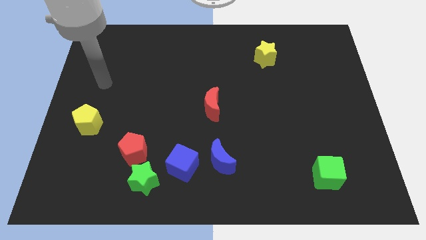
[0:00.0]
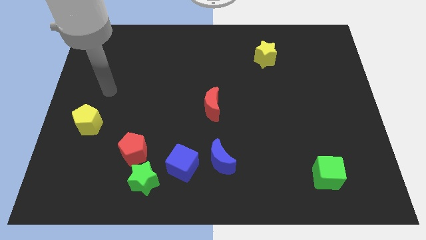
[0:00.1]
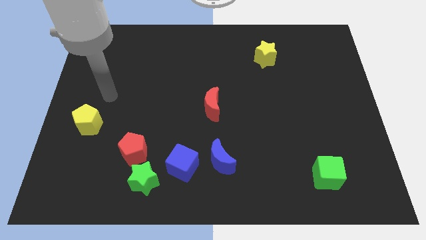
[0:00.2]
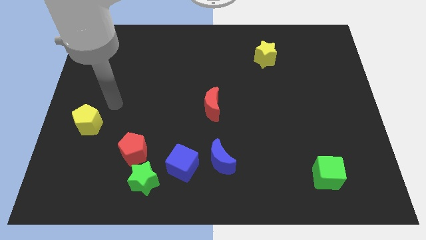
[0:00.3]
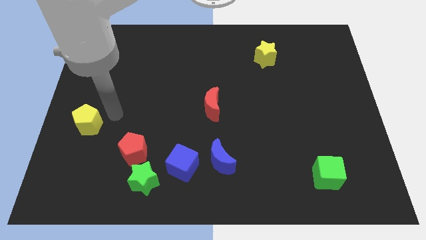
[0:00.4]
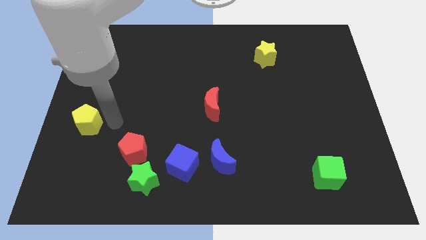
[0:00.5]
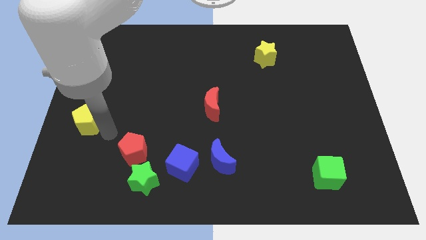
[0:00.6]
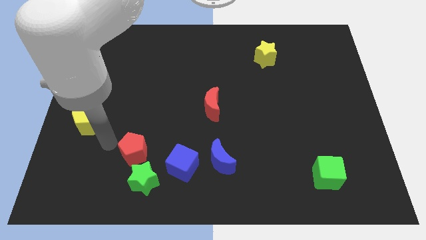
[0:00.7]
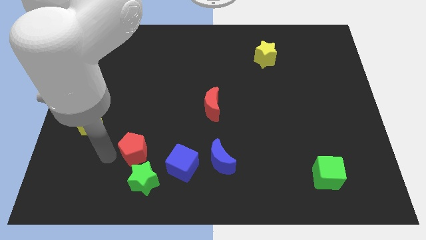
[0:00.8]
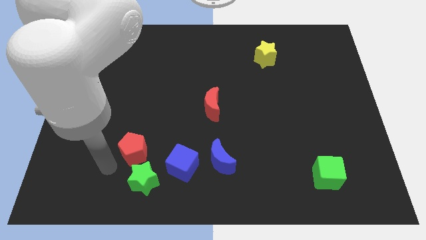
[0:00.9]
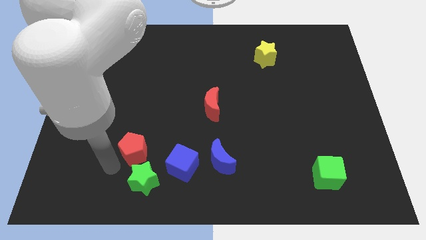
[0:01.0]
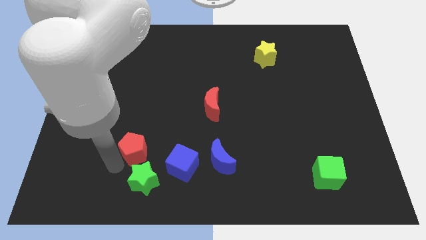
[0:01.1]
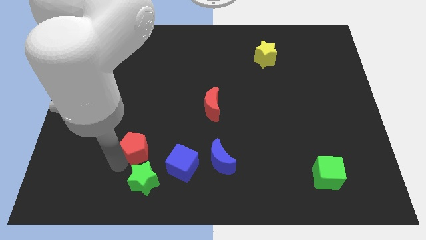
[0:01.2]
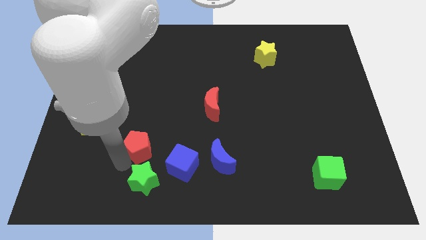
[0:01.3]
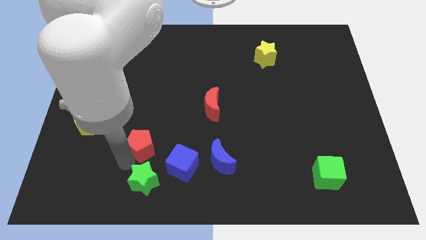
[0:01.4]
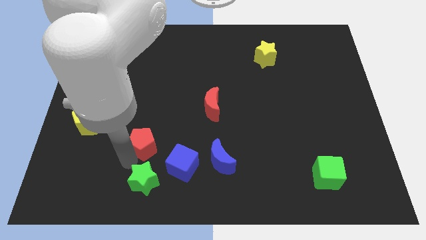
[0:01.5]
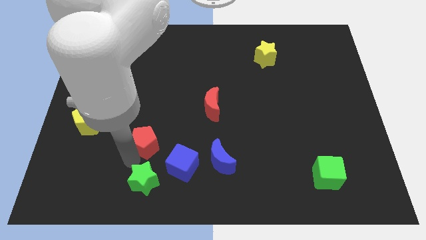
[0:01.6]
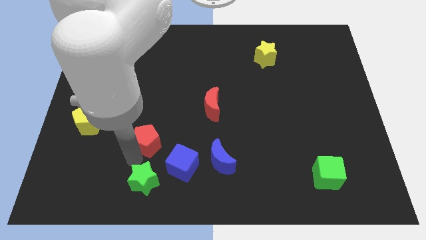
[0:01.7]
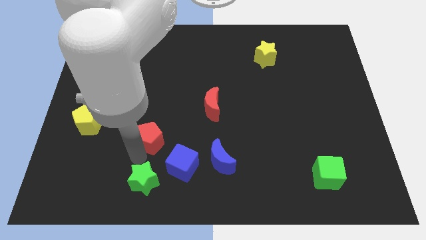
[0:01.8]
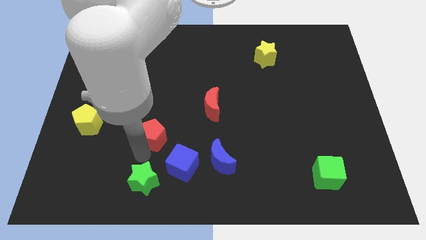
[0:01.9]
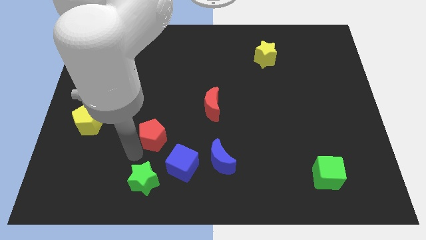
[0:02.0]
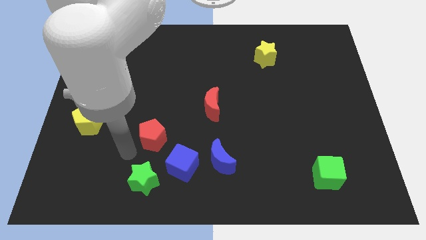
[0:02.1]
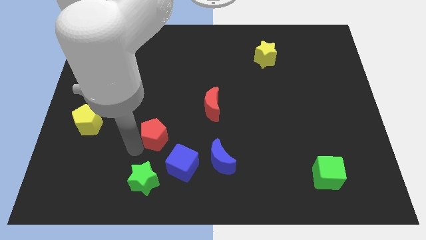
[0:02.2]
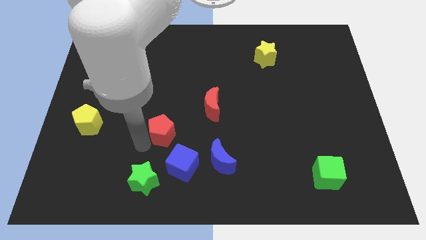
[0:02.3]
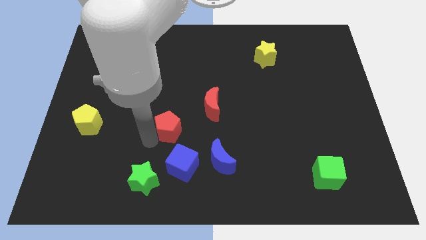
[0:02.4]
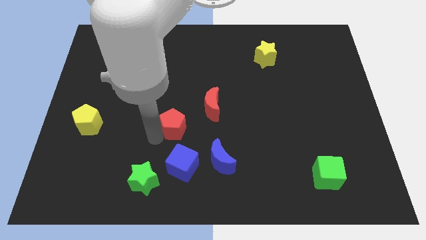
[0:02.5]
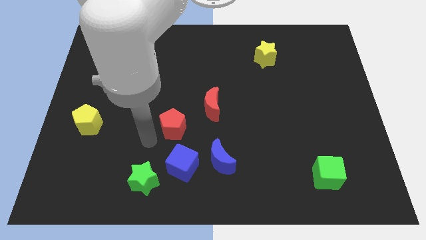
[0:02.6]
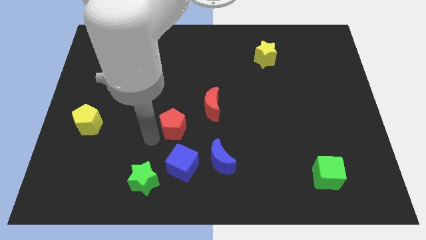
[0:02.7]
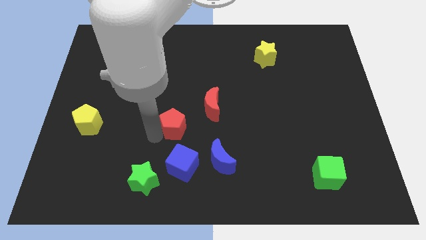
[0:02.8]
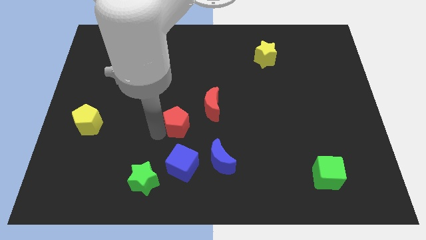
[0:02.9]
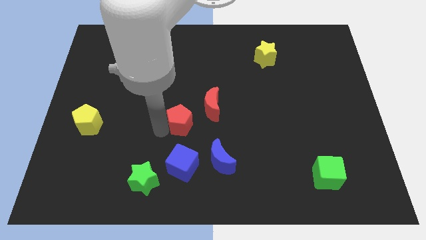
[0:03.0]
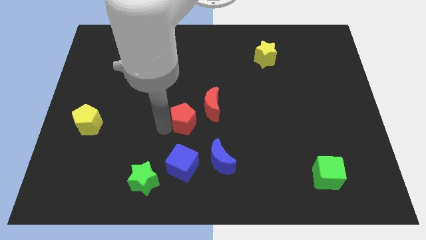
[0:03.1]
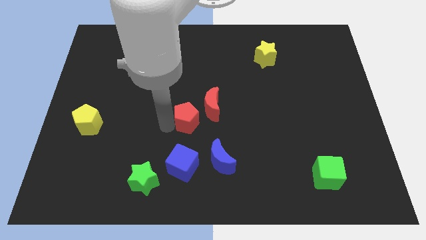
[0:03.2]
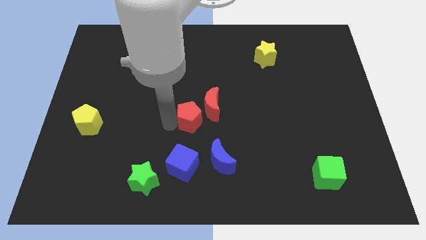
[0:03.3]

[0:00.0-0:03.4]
move the red pentagon close to the red moon

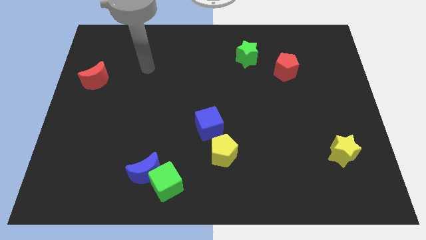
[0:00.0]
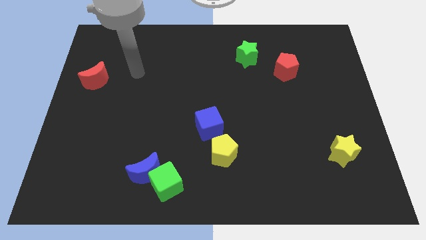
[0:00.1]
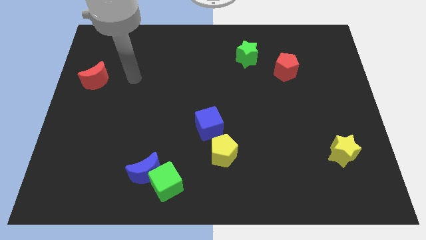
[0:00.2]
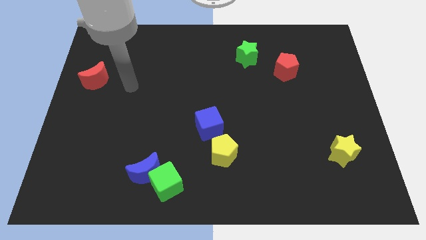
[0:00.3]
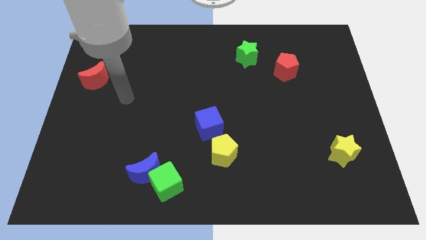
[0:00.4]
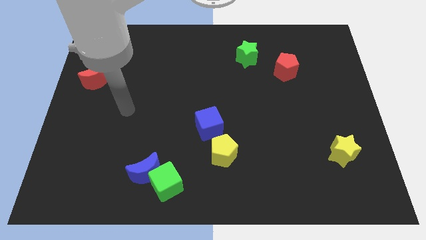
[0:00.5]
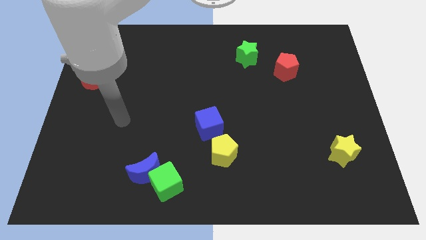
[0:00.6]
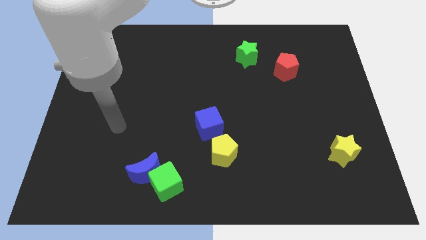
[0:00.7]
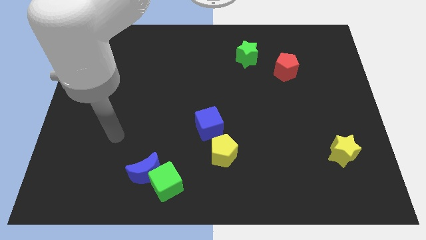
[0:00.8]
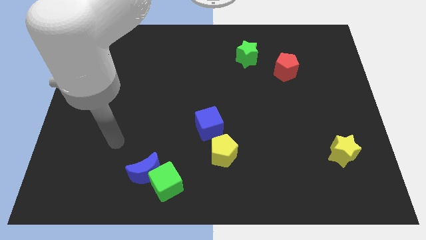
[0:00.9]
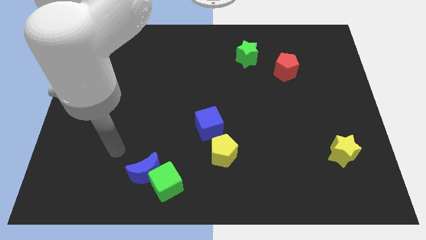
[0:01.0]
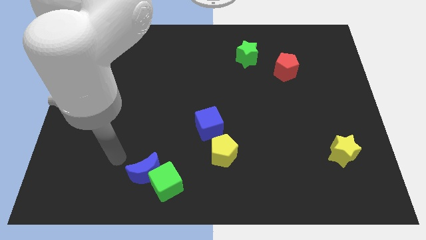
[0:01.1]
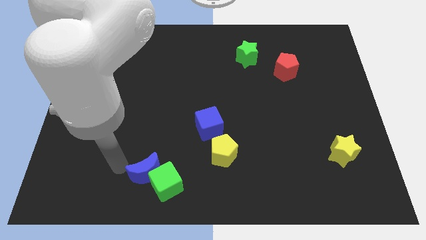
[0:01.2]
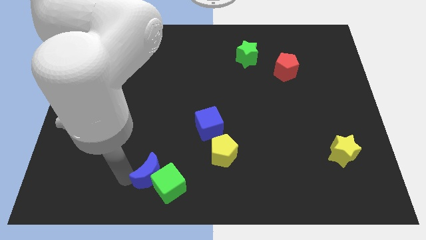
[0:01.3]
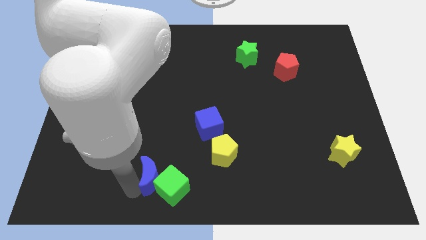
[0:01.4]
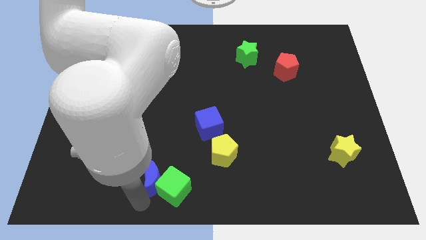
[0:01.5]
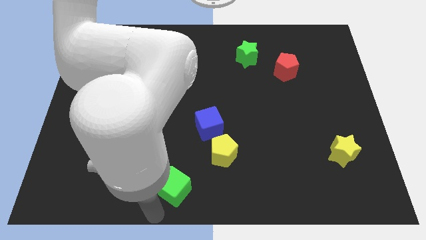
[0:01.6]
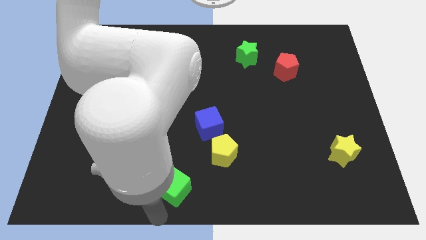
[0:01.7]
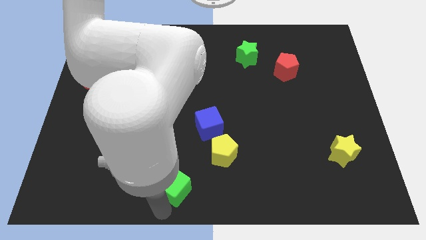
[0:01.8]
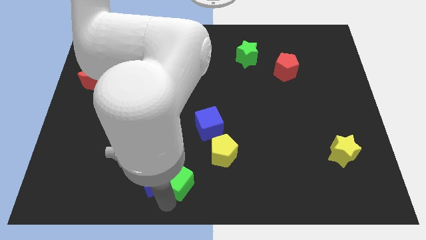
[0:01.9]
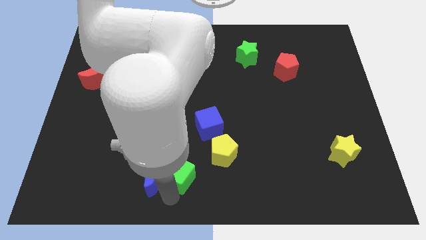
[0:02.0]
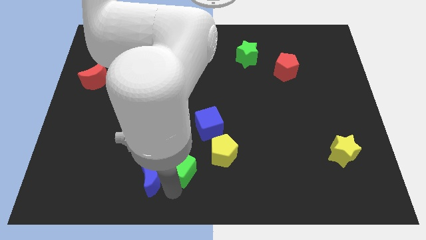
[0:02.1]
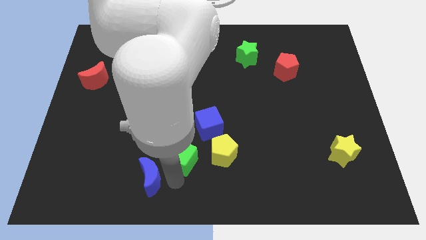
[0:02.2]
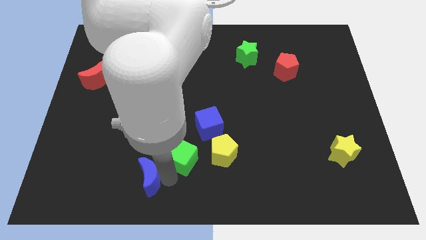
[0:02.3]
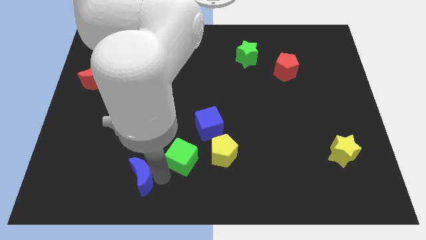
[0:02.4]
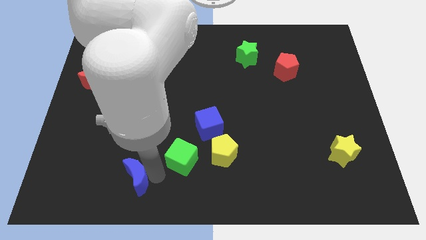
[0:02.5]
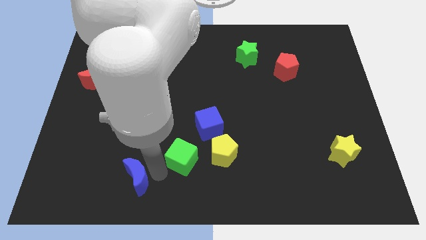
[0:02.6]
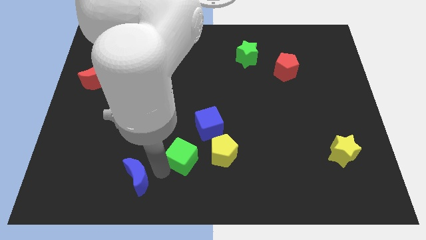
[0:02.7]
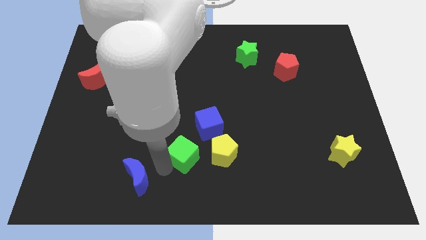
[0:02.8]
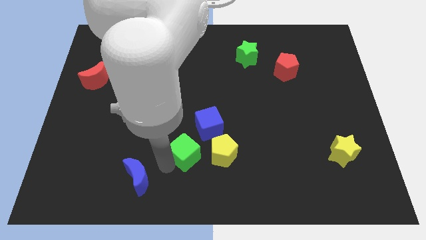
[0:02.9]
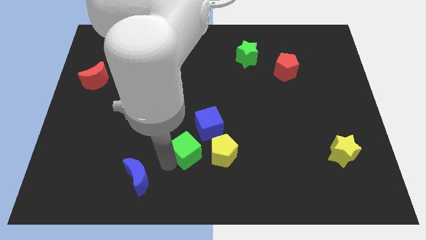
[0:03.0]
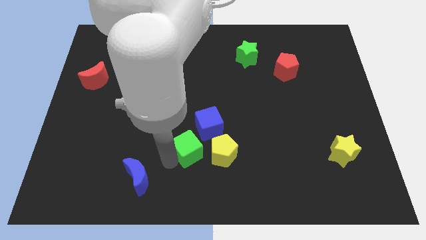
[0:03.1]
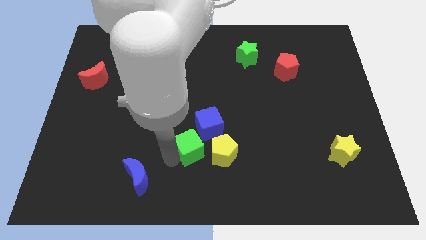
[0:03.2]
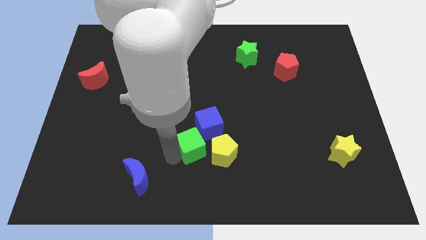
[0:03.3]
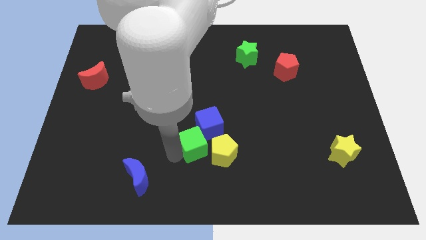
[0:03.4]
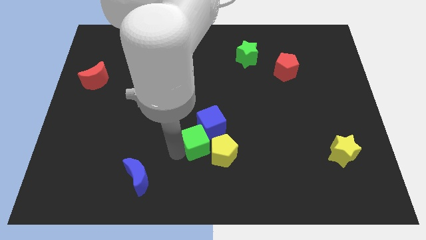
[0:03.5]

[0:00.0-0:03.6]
move the green cube next to the blue cube

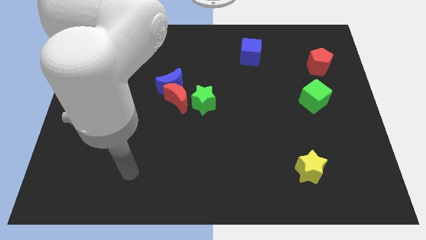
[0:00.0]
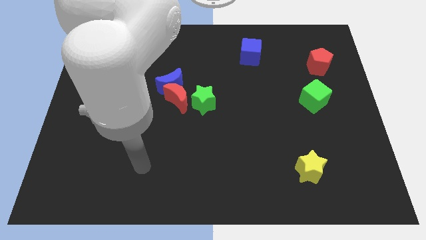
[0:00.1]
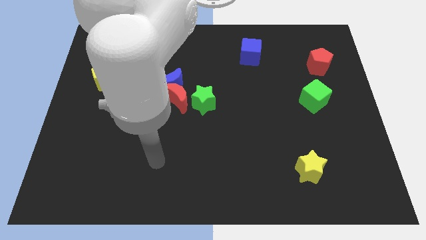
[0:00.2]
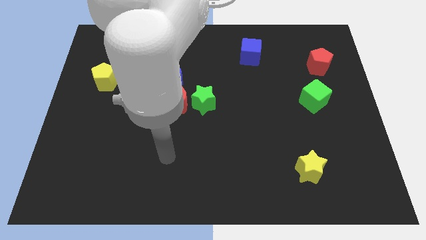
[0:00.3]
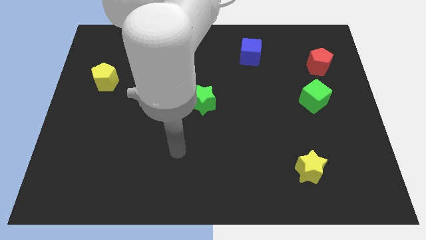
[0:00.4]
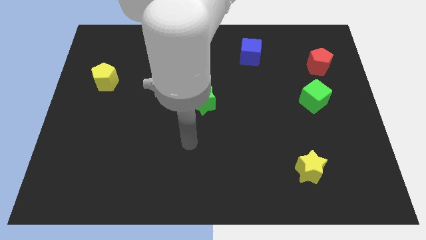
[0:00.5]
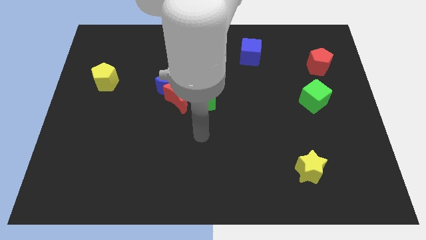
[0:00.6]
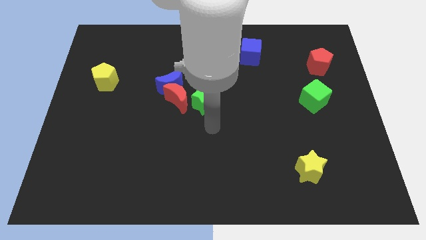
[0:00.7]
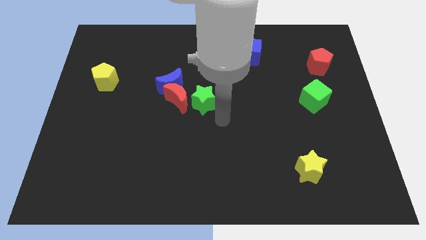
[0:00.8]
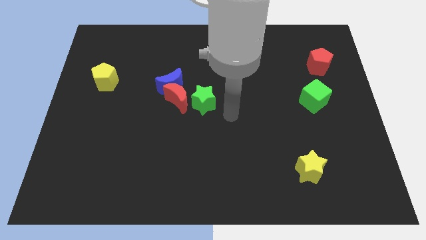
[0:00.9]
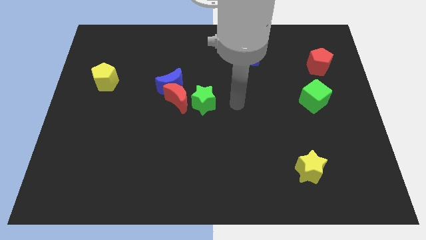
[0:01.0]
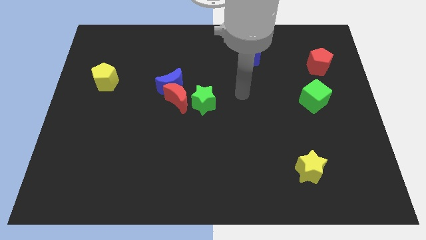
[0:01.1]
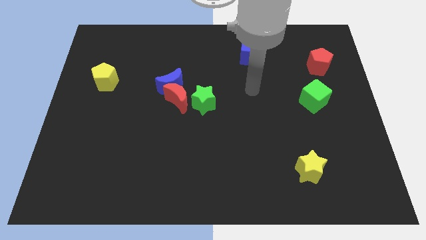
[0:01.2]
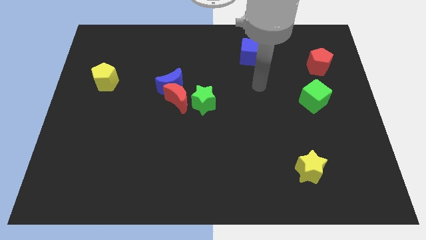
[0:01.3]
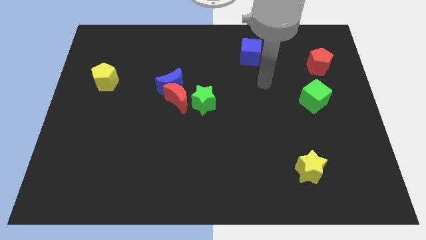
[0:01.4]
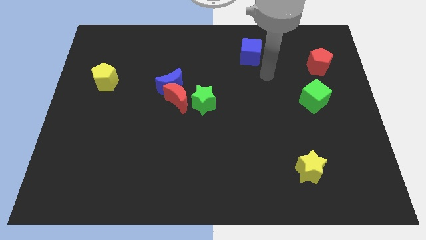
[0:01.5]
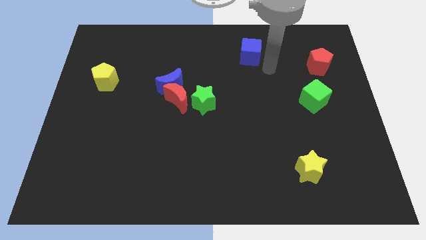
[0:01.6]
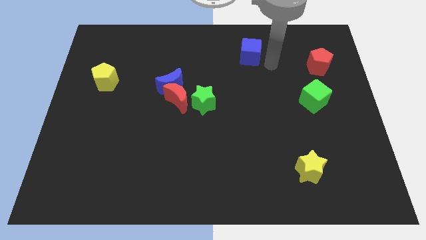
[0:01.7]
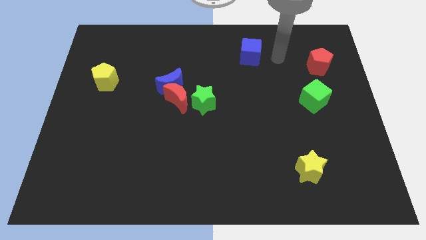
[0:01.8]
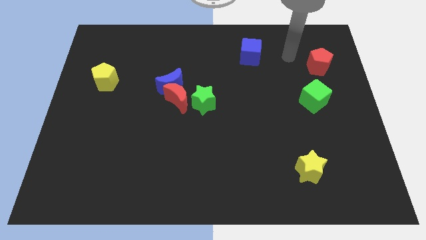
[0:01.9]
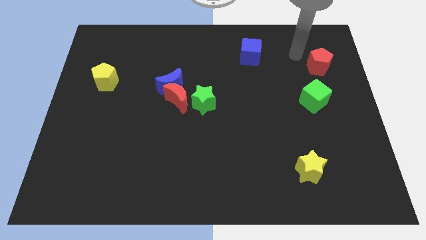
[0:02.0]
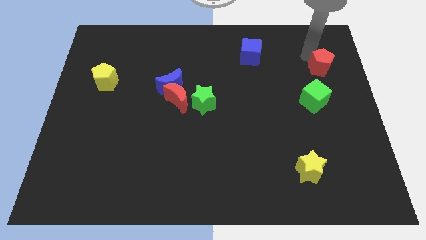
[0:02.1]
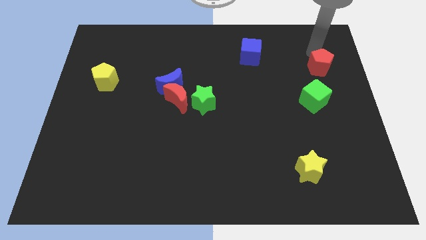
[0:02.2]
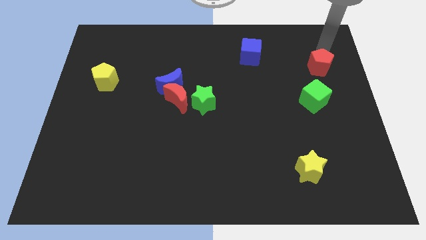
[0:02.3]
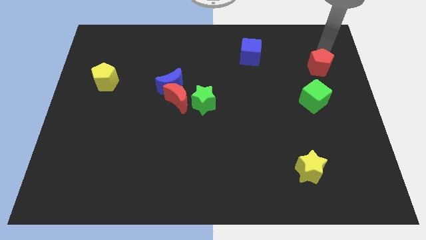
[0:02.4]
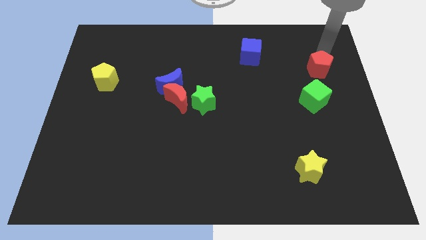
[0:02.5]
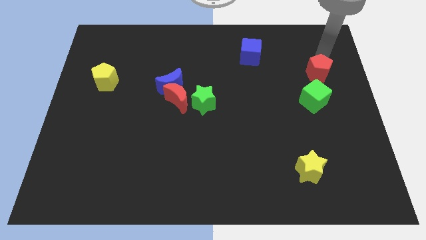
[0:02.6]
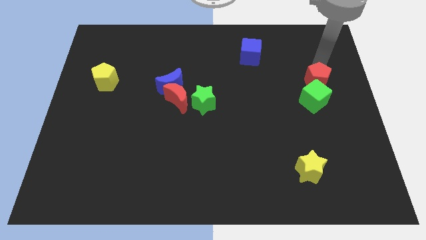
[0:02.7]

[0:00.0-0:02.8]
push the red pentagon towards the green cube
